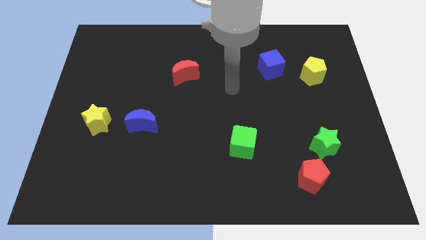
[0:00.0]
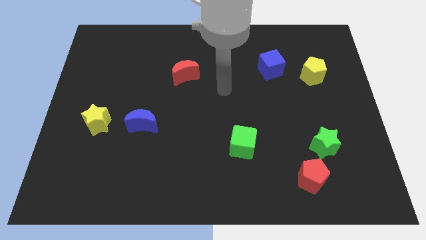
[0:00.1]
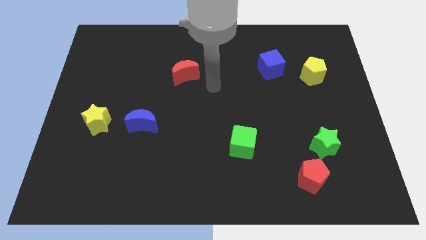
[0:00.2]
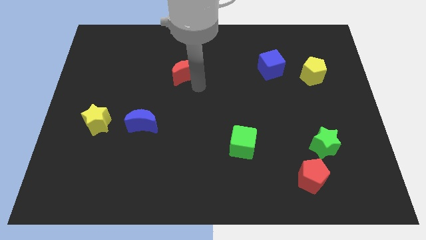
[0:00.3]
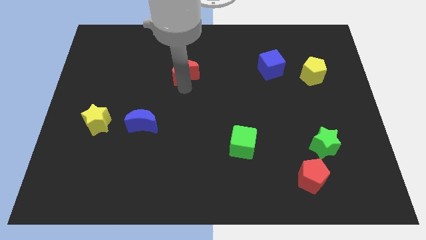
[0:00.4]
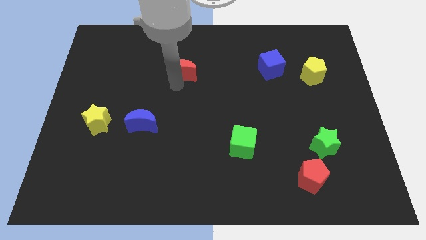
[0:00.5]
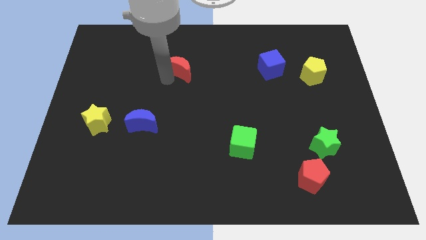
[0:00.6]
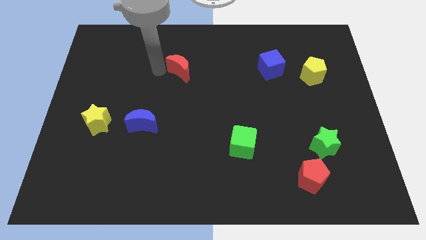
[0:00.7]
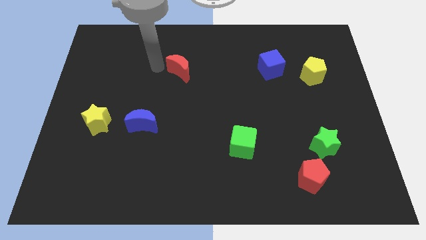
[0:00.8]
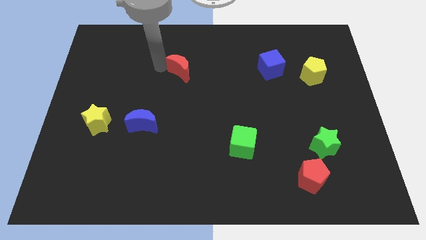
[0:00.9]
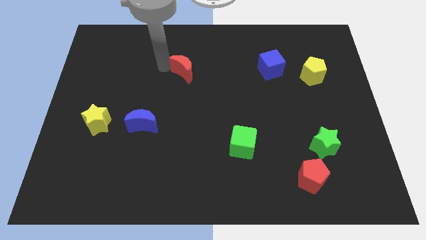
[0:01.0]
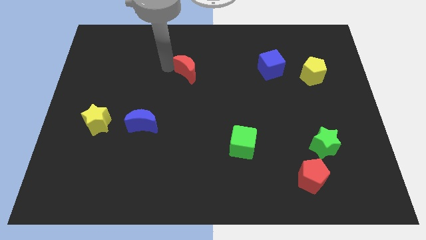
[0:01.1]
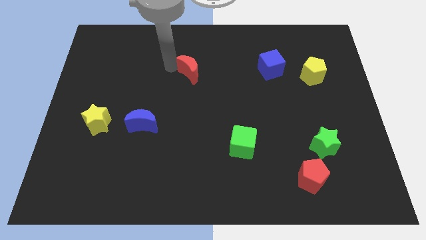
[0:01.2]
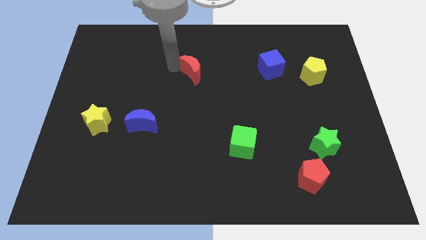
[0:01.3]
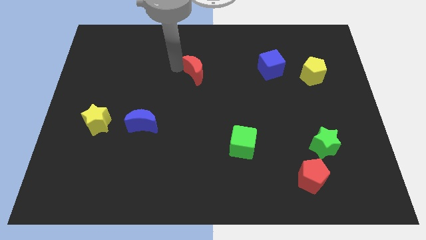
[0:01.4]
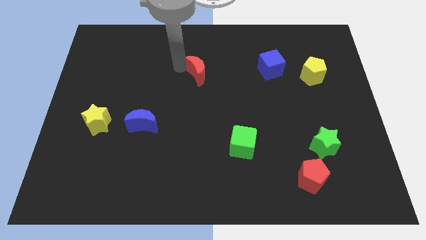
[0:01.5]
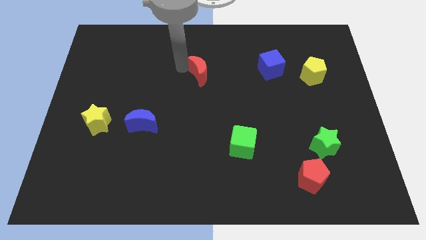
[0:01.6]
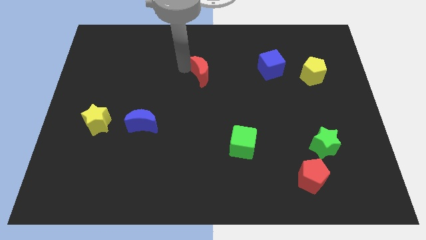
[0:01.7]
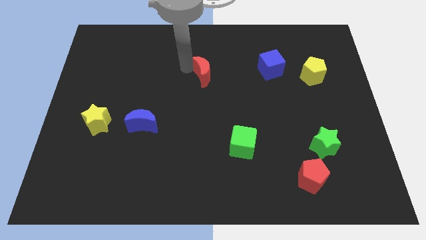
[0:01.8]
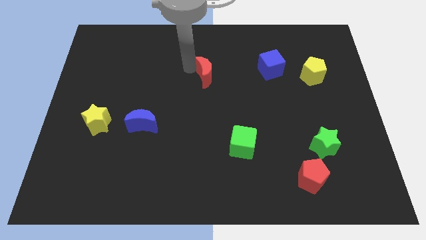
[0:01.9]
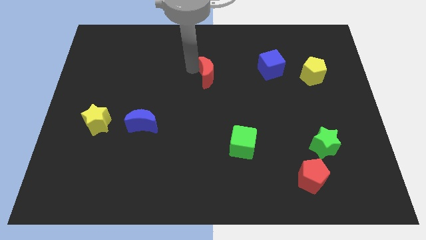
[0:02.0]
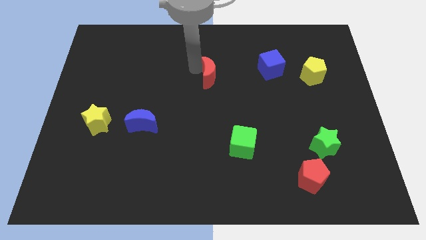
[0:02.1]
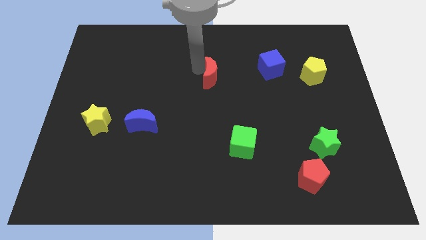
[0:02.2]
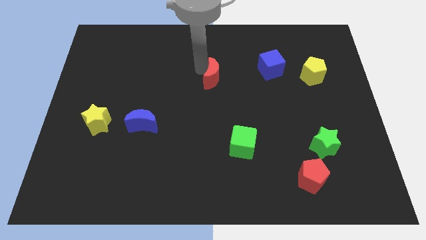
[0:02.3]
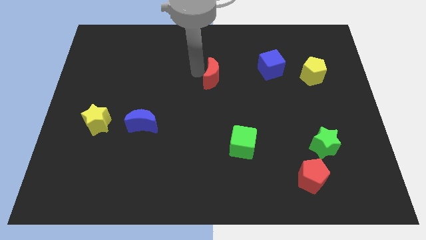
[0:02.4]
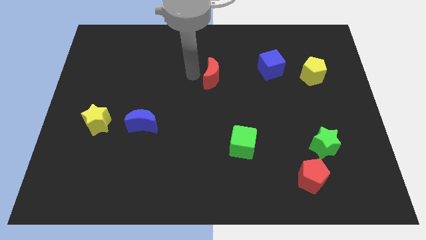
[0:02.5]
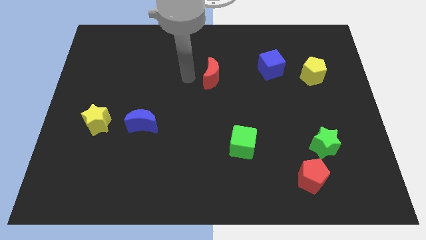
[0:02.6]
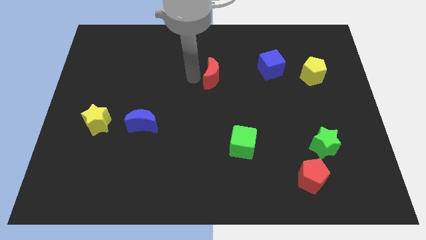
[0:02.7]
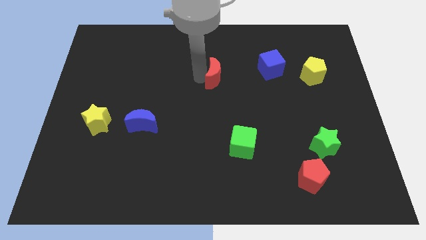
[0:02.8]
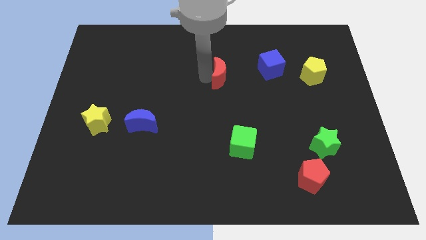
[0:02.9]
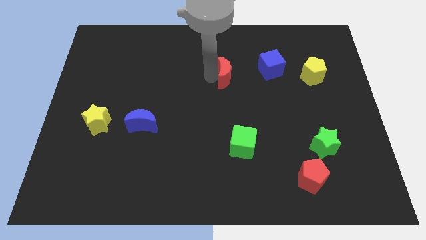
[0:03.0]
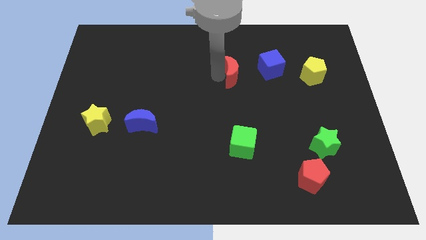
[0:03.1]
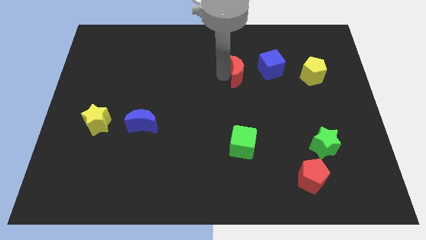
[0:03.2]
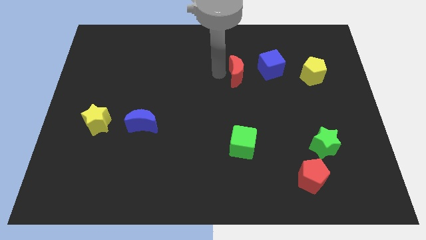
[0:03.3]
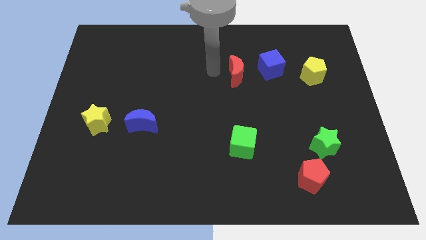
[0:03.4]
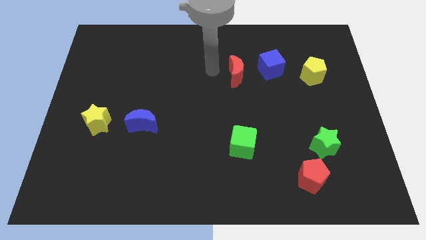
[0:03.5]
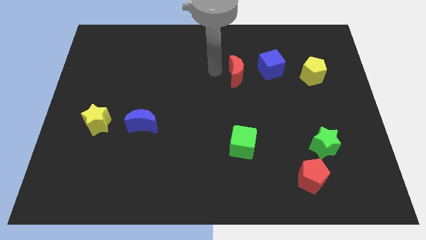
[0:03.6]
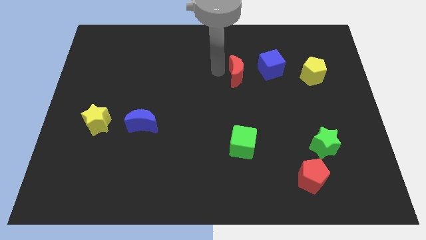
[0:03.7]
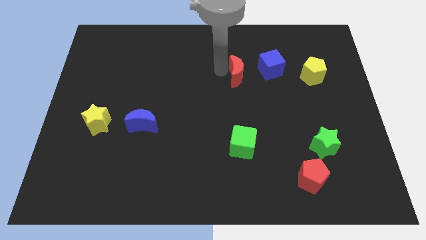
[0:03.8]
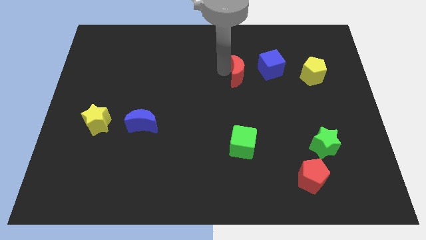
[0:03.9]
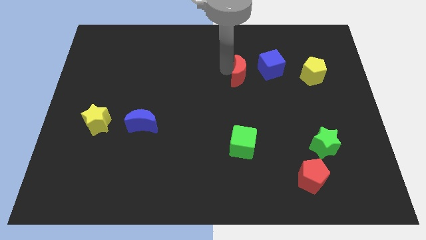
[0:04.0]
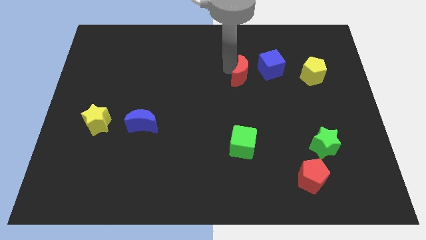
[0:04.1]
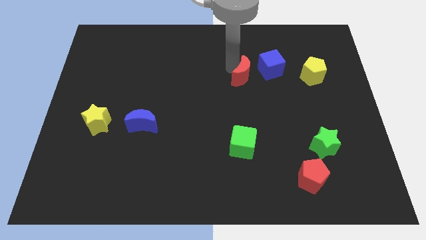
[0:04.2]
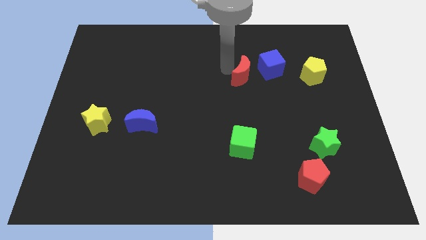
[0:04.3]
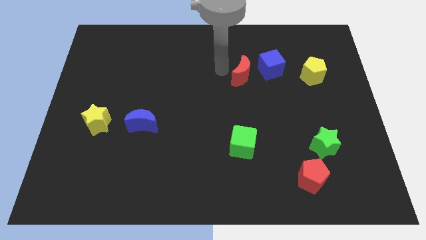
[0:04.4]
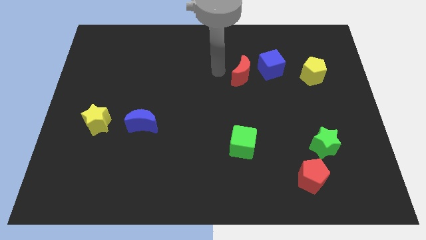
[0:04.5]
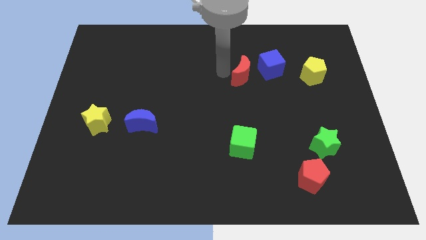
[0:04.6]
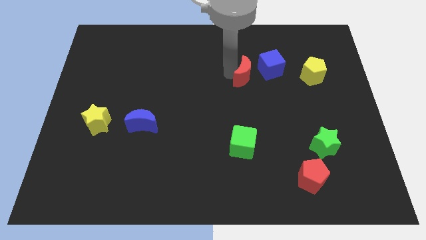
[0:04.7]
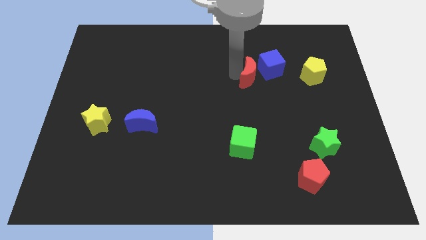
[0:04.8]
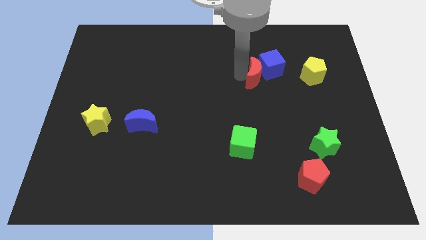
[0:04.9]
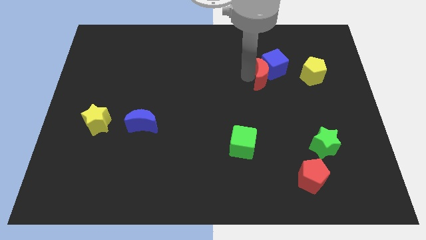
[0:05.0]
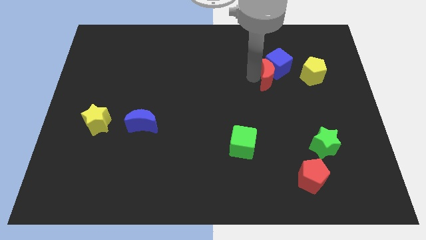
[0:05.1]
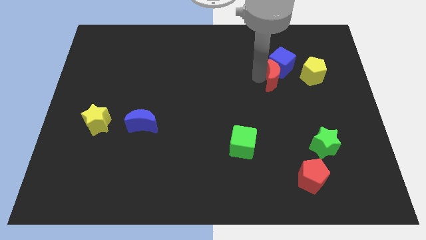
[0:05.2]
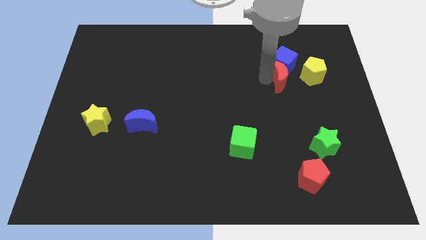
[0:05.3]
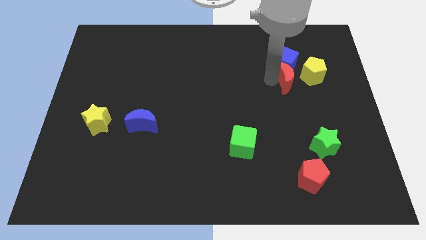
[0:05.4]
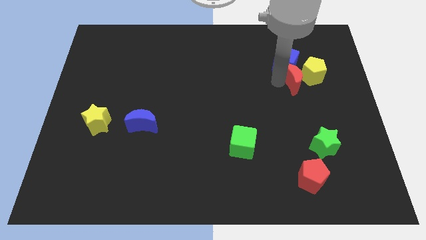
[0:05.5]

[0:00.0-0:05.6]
put the red moon next to the yellow pentagon

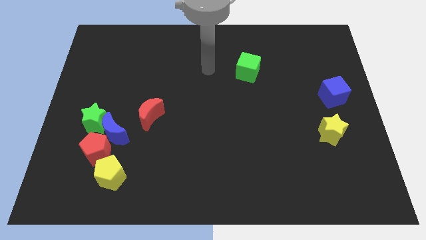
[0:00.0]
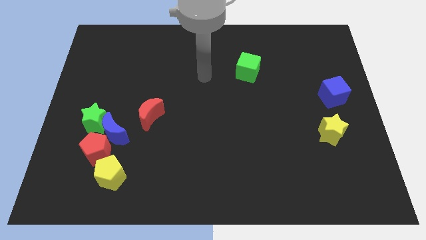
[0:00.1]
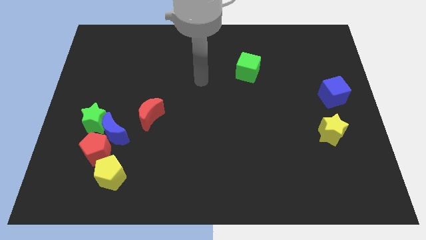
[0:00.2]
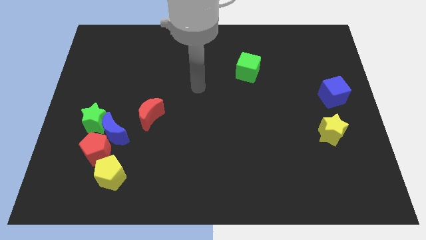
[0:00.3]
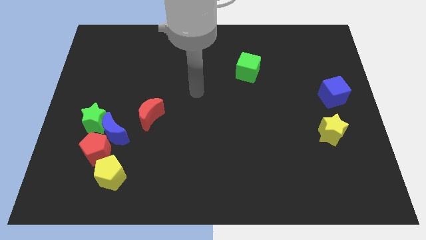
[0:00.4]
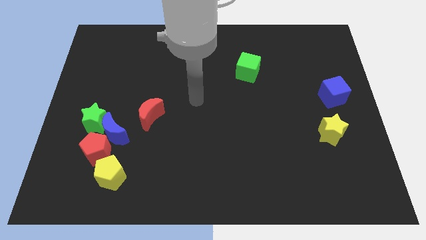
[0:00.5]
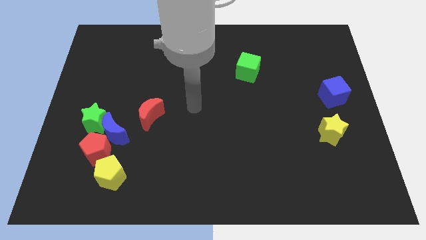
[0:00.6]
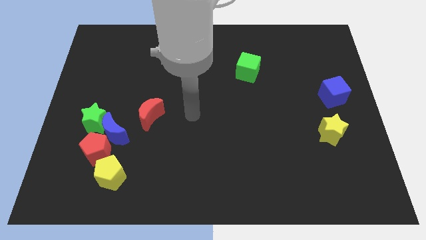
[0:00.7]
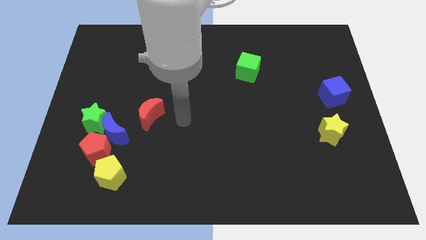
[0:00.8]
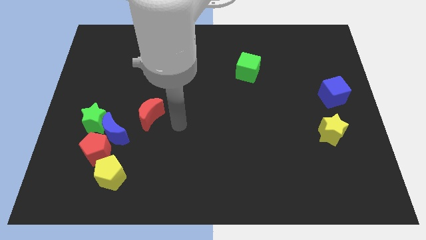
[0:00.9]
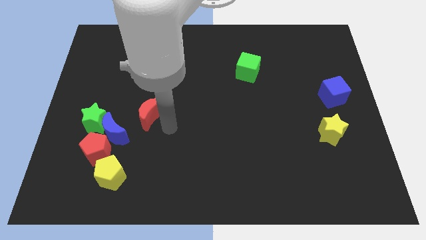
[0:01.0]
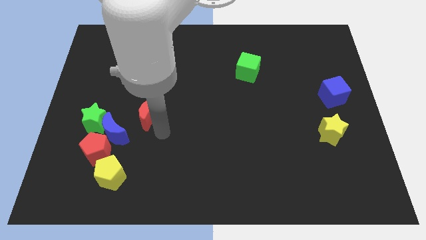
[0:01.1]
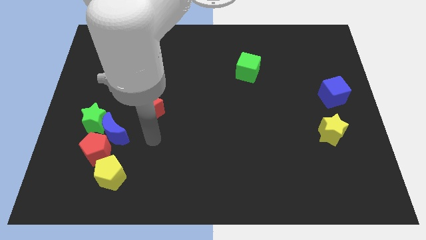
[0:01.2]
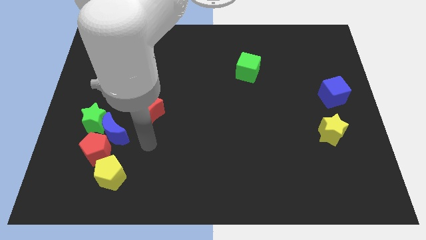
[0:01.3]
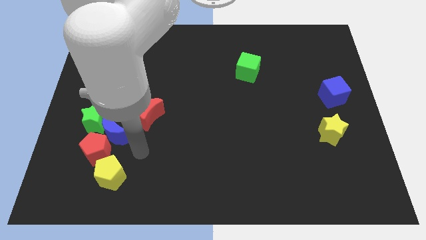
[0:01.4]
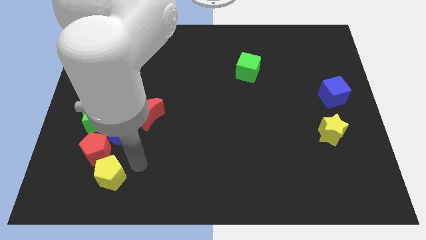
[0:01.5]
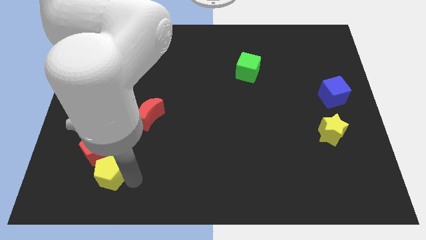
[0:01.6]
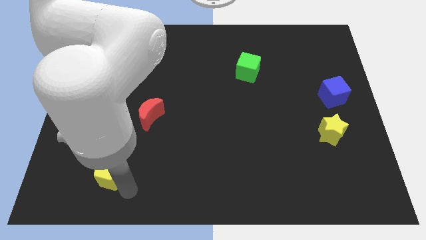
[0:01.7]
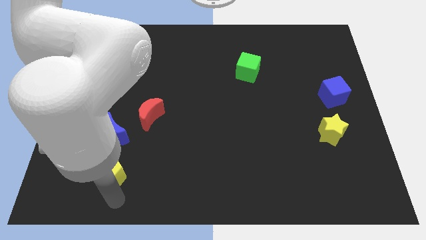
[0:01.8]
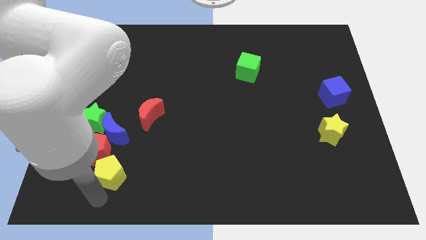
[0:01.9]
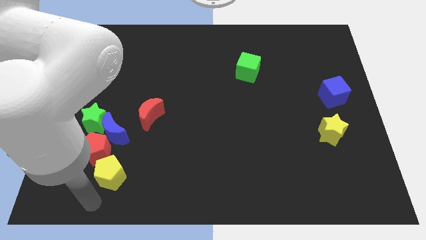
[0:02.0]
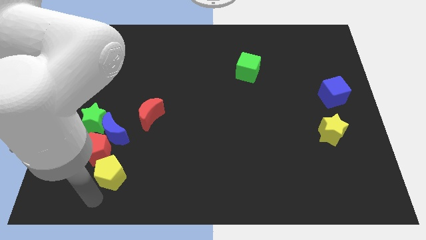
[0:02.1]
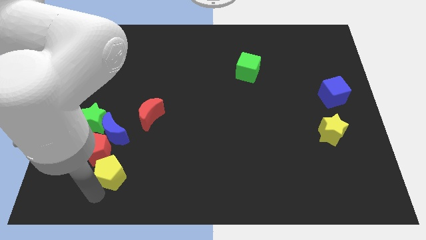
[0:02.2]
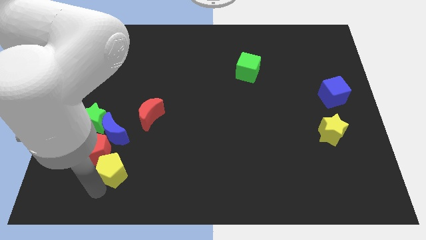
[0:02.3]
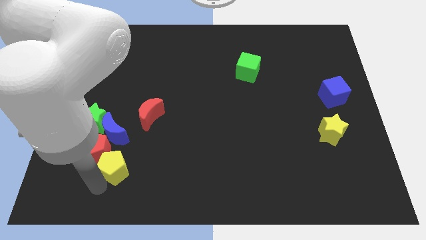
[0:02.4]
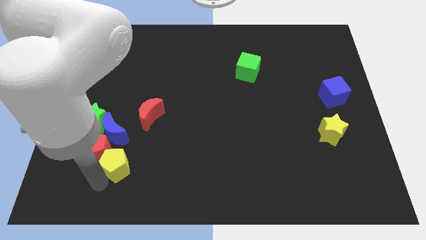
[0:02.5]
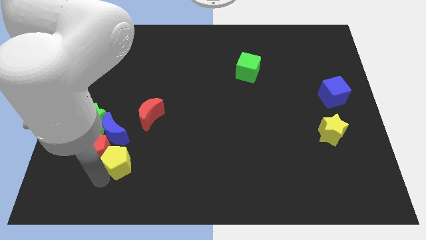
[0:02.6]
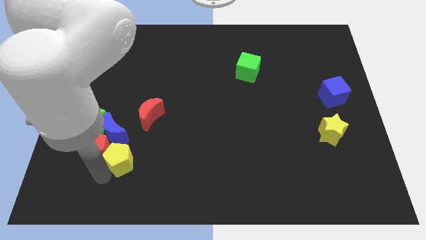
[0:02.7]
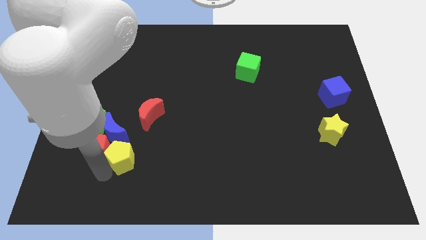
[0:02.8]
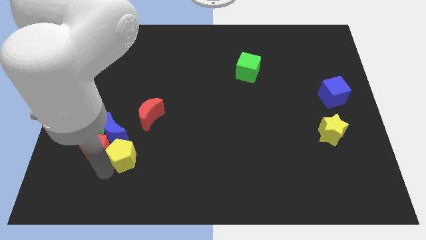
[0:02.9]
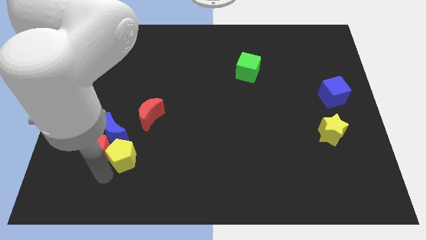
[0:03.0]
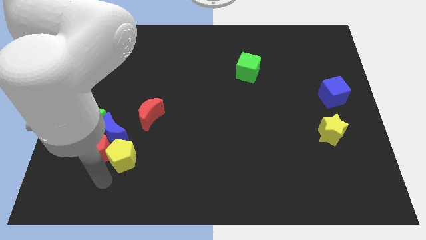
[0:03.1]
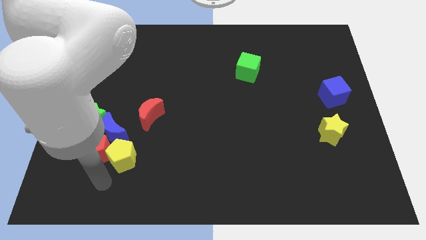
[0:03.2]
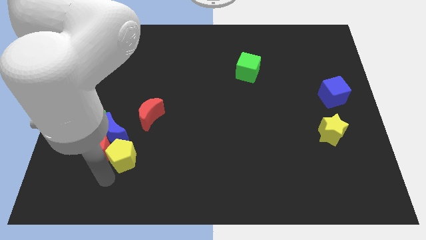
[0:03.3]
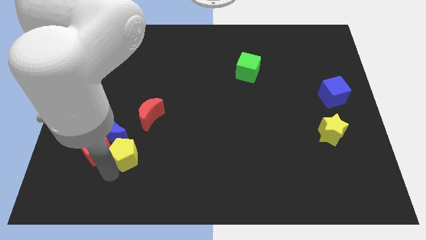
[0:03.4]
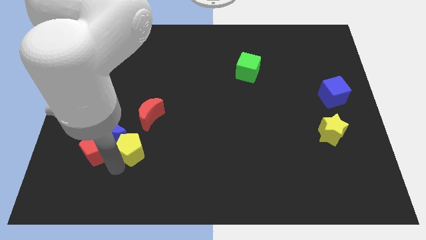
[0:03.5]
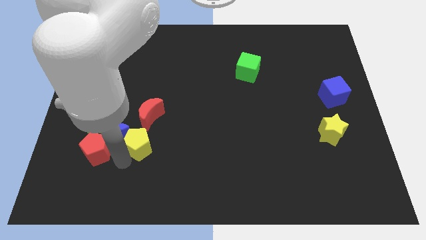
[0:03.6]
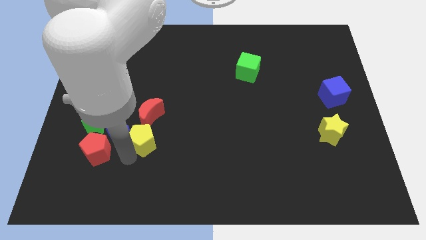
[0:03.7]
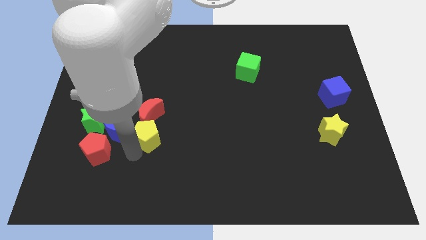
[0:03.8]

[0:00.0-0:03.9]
slide the yellow pentagon to the red moon
